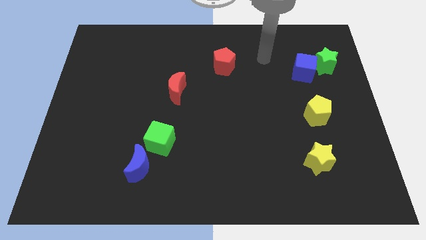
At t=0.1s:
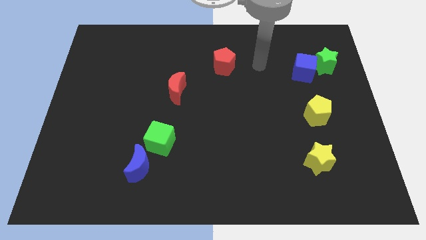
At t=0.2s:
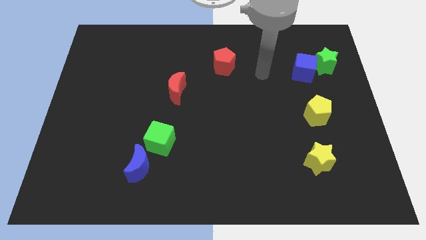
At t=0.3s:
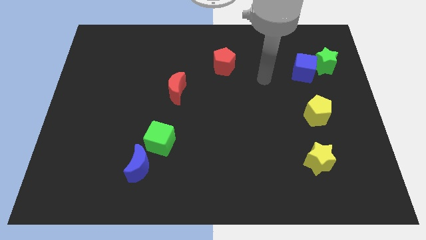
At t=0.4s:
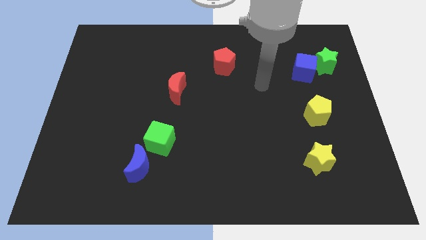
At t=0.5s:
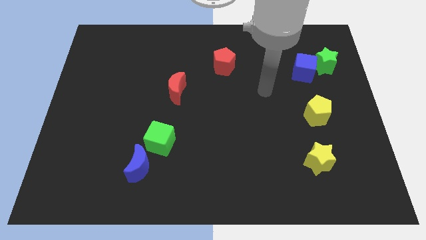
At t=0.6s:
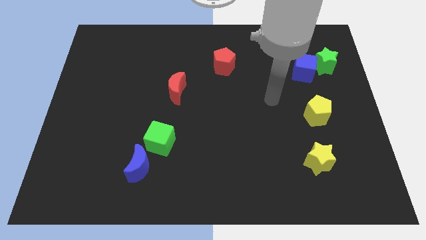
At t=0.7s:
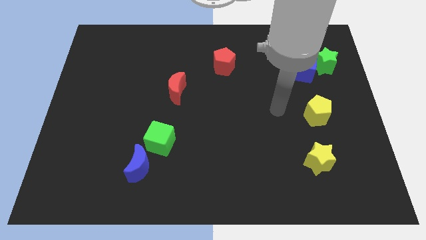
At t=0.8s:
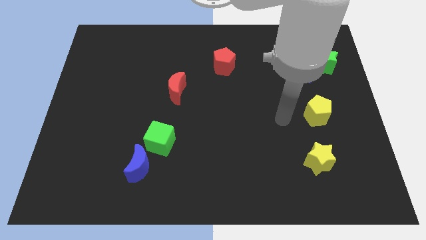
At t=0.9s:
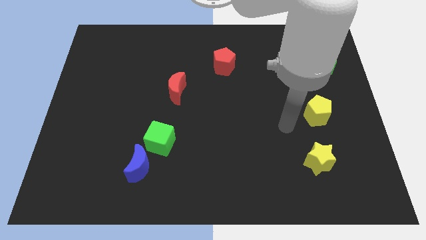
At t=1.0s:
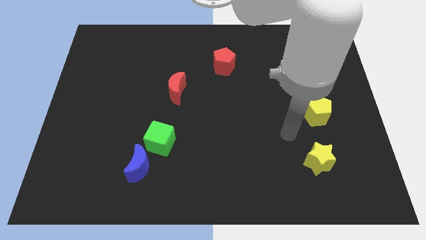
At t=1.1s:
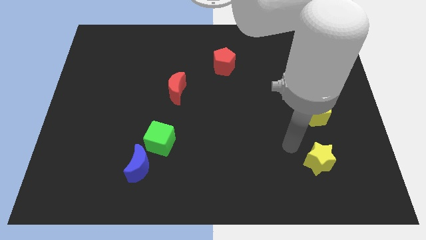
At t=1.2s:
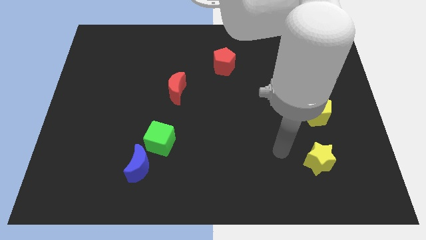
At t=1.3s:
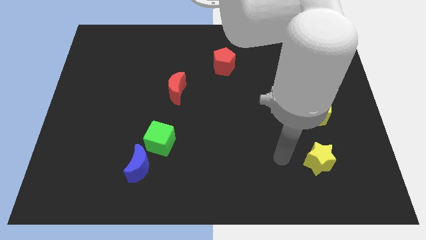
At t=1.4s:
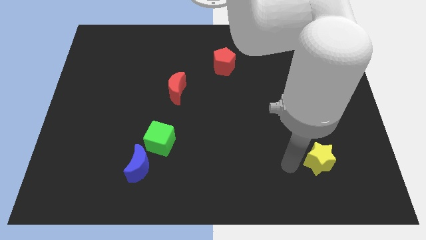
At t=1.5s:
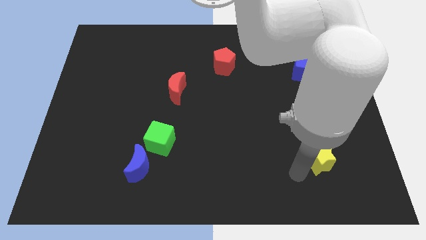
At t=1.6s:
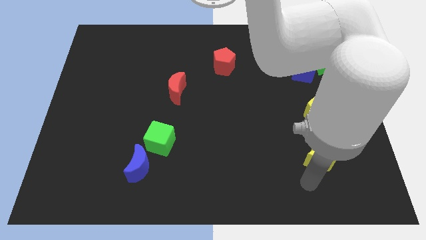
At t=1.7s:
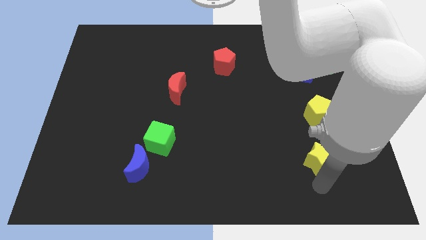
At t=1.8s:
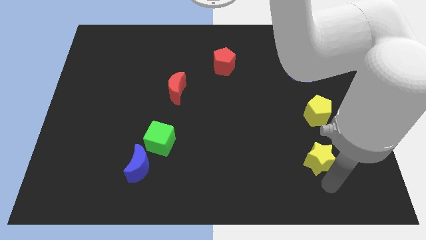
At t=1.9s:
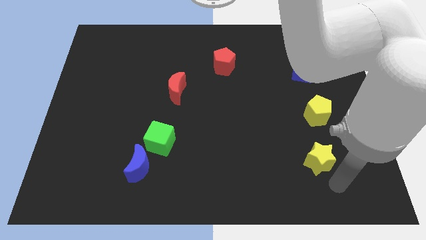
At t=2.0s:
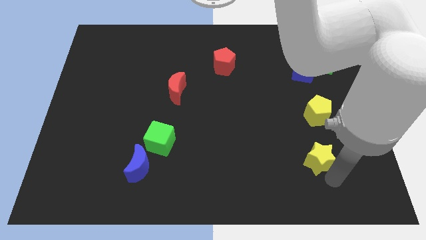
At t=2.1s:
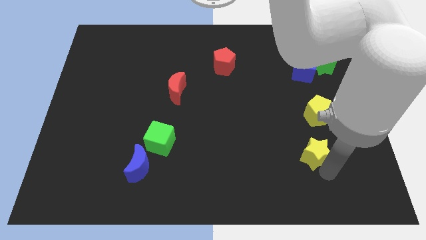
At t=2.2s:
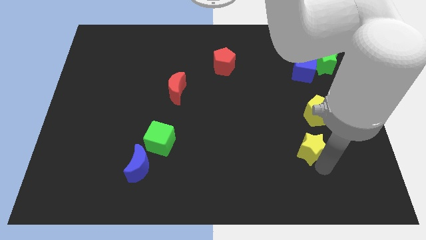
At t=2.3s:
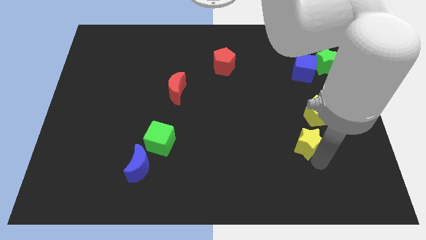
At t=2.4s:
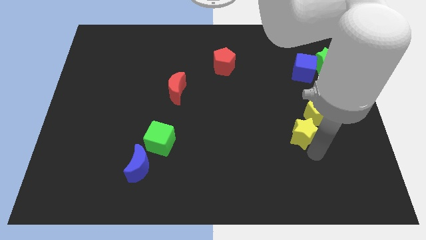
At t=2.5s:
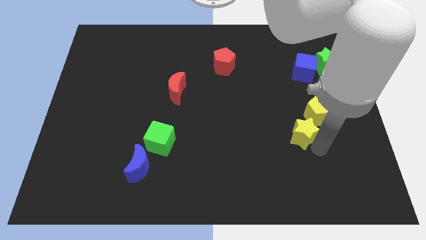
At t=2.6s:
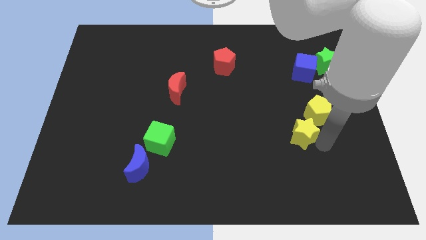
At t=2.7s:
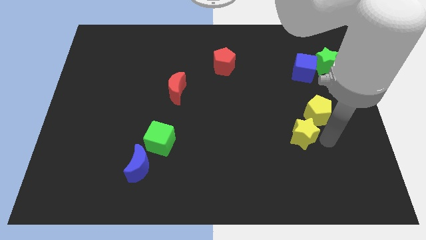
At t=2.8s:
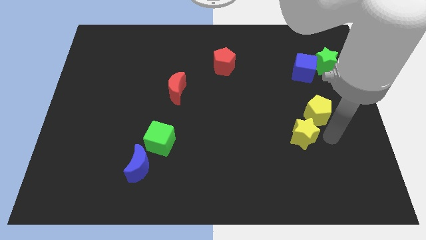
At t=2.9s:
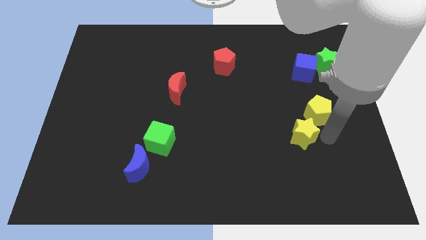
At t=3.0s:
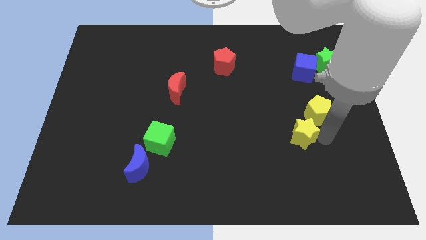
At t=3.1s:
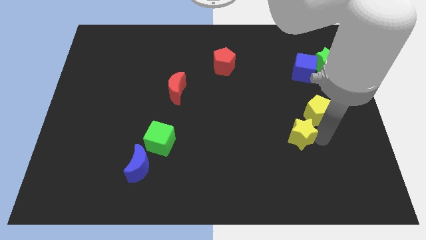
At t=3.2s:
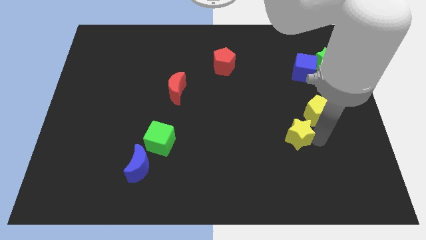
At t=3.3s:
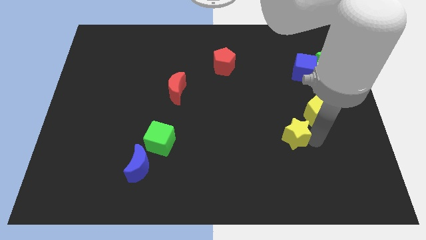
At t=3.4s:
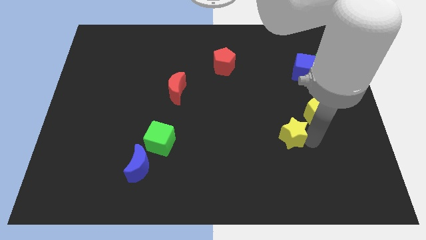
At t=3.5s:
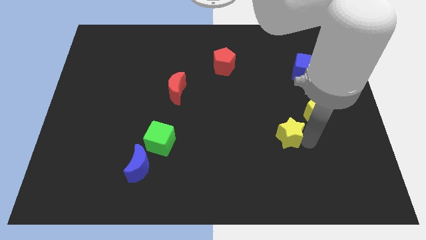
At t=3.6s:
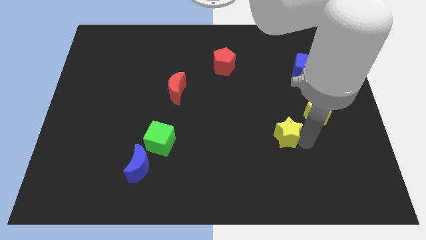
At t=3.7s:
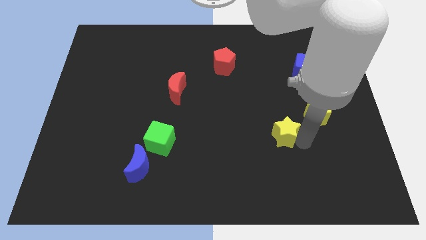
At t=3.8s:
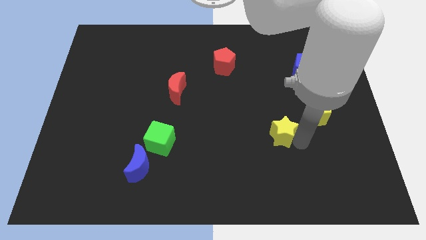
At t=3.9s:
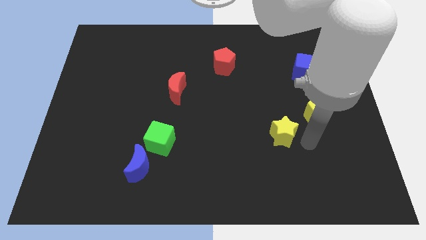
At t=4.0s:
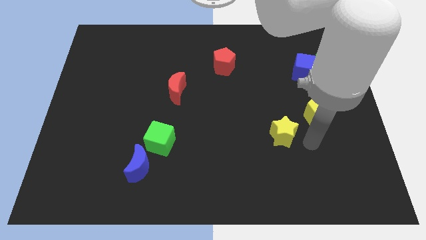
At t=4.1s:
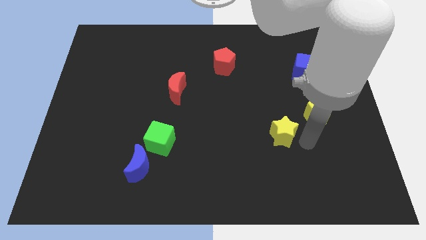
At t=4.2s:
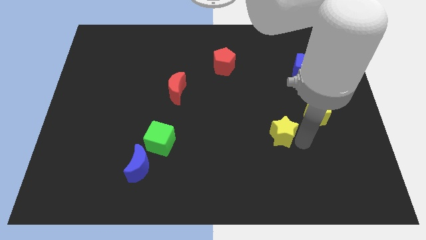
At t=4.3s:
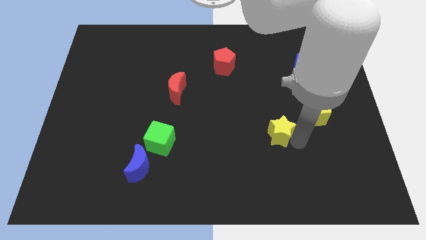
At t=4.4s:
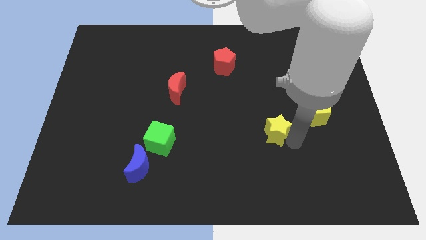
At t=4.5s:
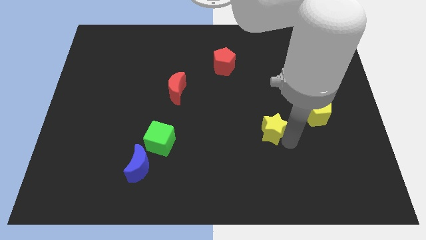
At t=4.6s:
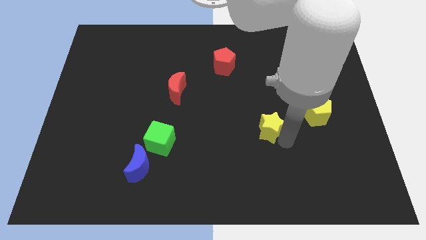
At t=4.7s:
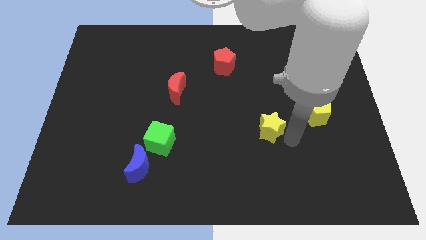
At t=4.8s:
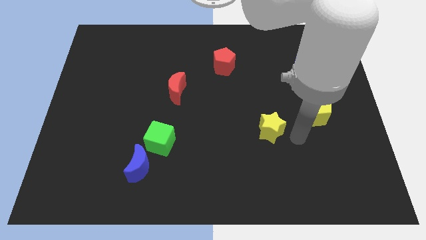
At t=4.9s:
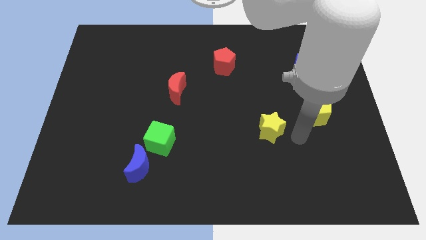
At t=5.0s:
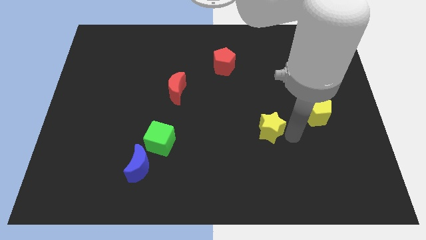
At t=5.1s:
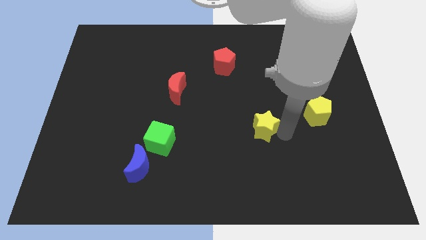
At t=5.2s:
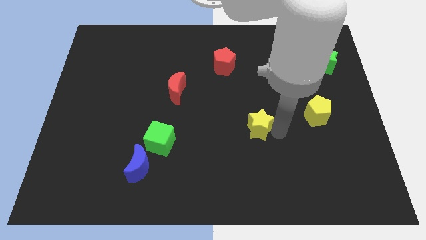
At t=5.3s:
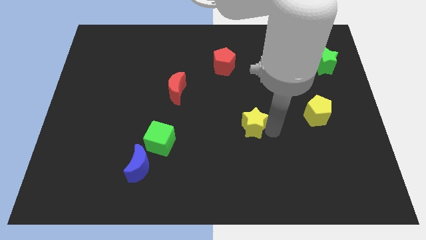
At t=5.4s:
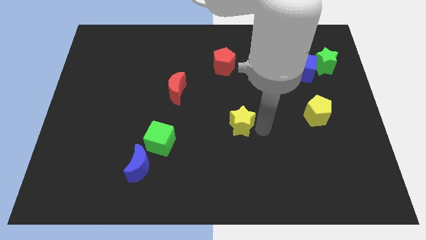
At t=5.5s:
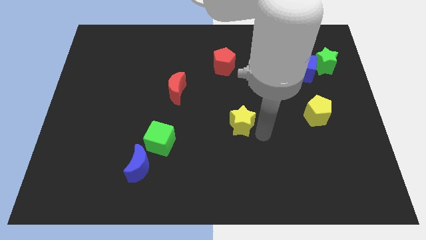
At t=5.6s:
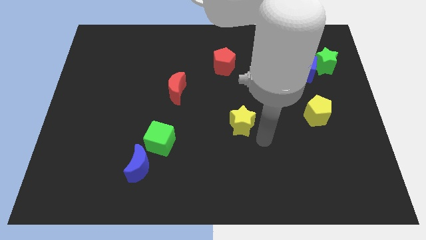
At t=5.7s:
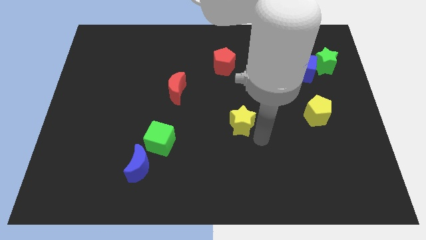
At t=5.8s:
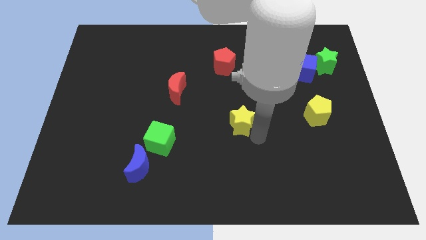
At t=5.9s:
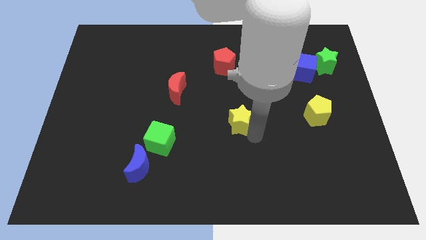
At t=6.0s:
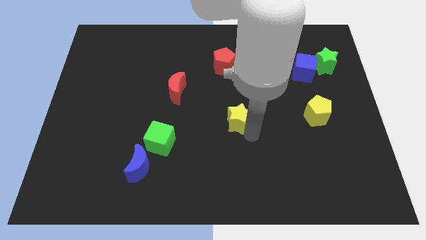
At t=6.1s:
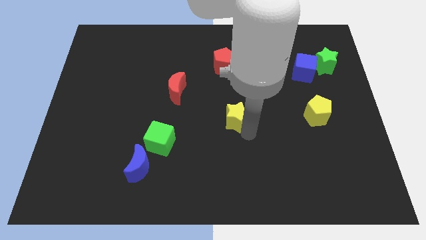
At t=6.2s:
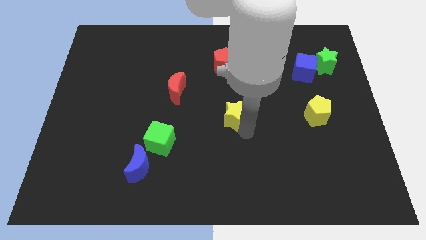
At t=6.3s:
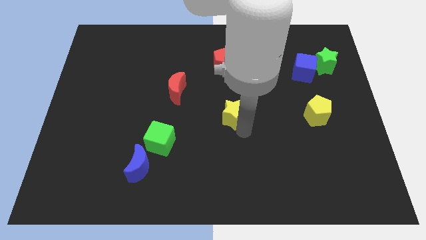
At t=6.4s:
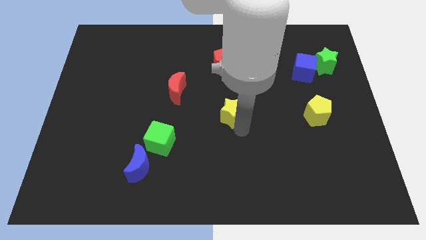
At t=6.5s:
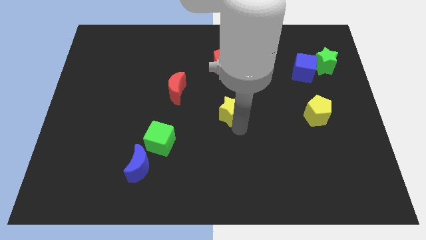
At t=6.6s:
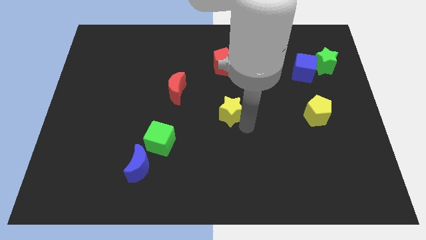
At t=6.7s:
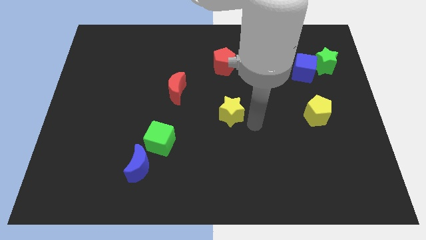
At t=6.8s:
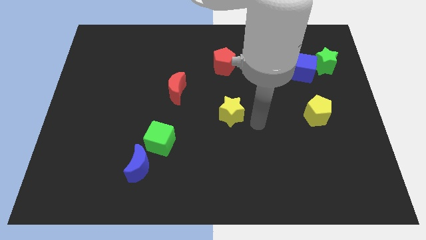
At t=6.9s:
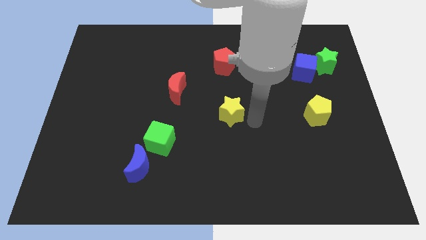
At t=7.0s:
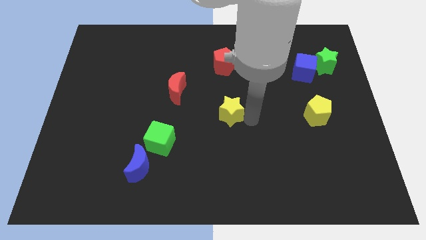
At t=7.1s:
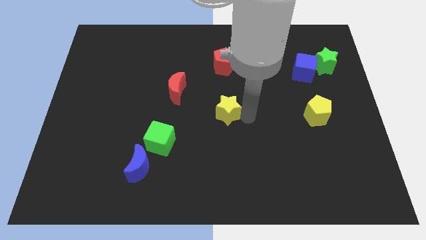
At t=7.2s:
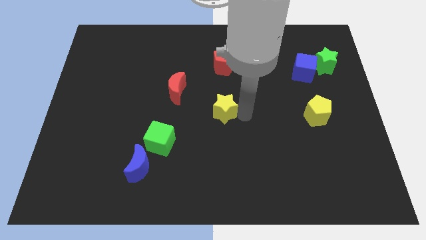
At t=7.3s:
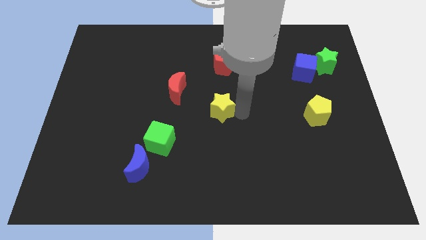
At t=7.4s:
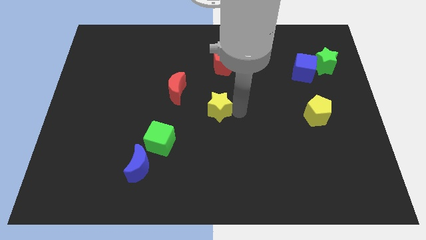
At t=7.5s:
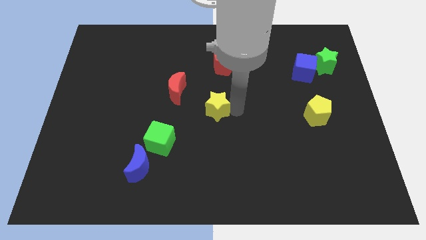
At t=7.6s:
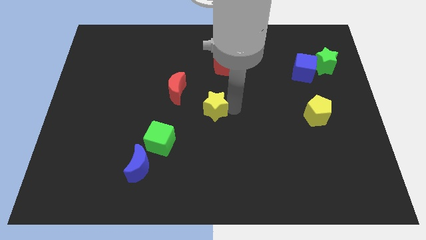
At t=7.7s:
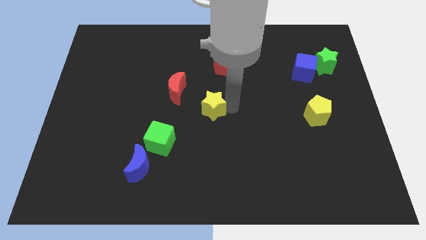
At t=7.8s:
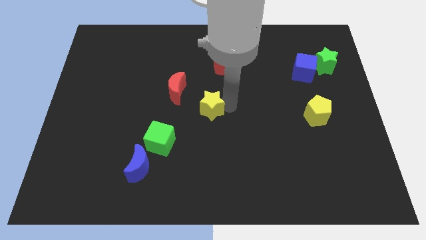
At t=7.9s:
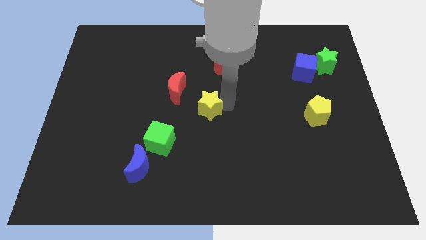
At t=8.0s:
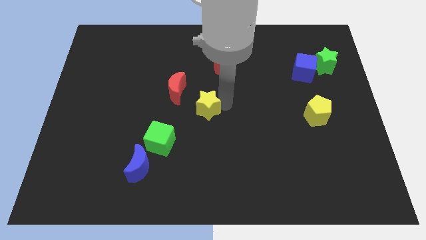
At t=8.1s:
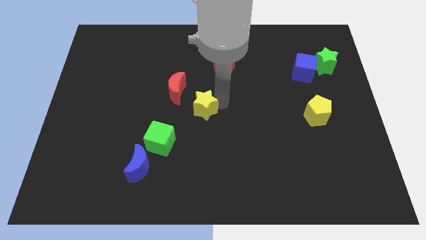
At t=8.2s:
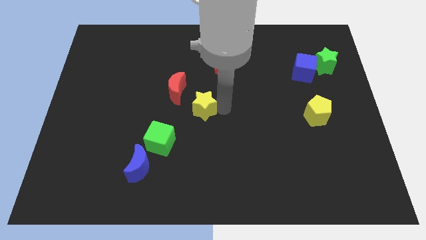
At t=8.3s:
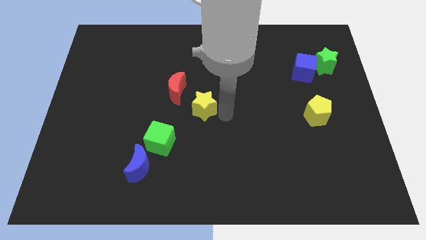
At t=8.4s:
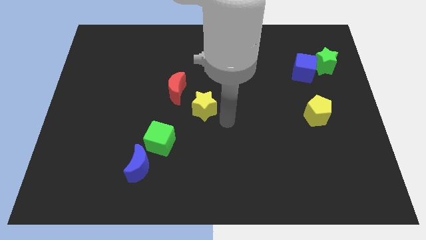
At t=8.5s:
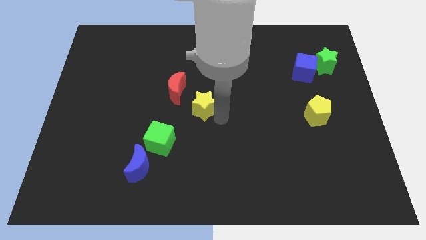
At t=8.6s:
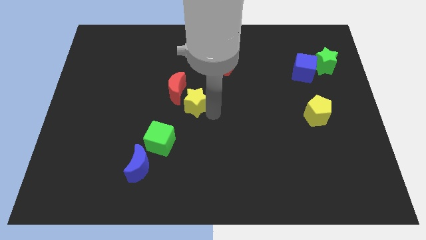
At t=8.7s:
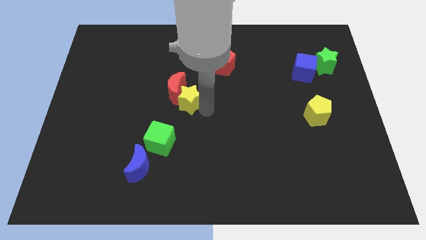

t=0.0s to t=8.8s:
move the yellow star towards the red moon
